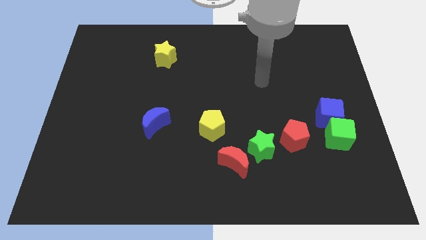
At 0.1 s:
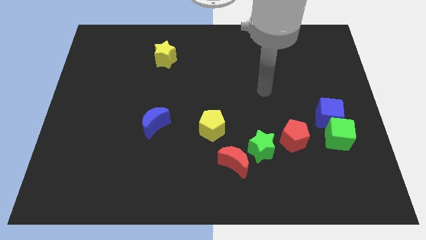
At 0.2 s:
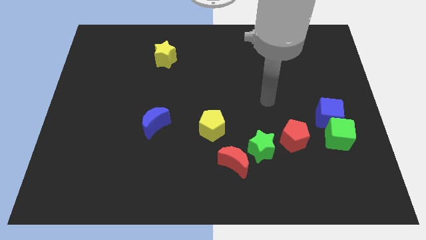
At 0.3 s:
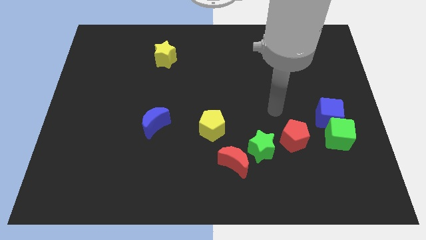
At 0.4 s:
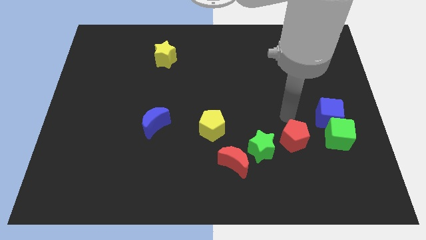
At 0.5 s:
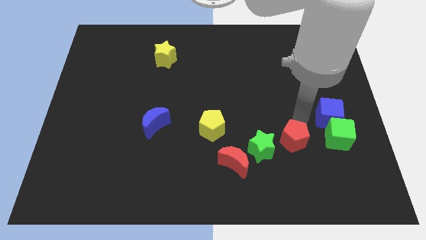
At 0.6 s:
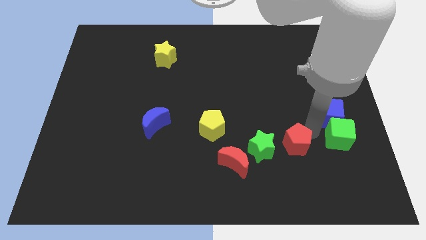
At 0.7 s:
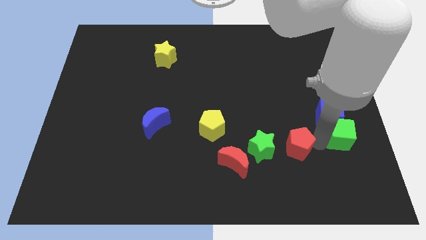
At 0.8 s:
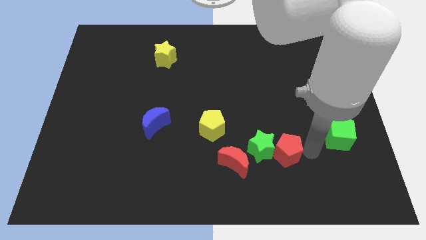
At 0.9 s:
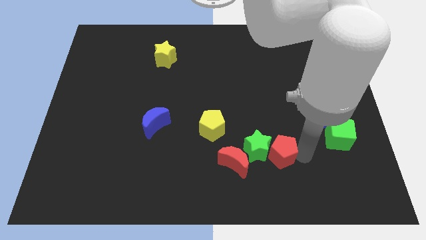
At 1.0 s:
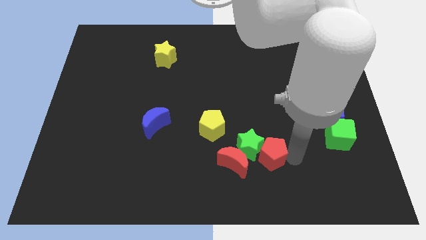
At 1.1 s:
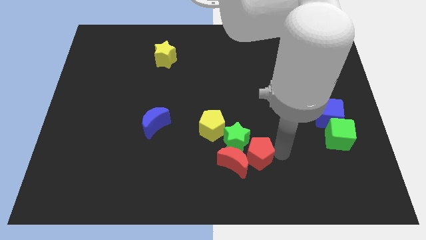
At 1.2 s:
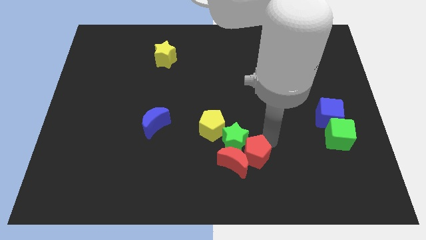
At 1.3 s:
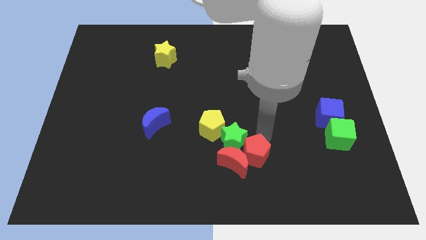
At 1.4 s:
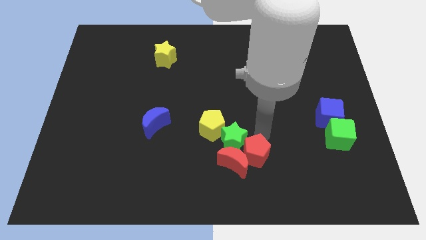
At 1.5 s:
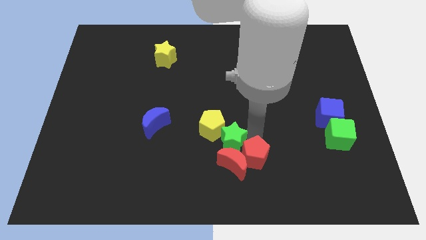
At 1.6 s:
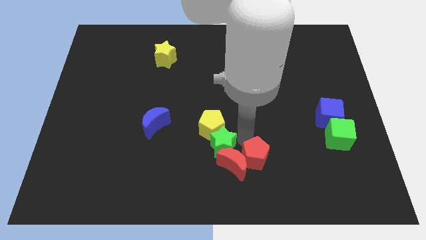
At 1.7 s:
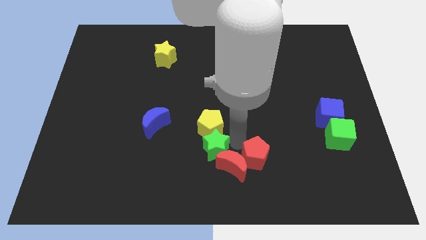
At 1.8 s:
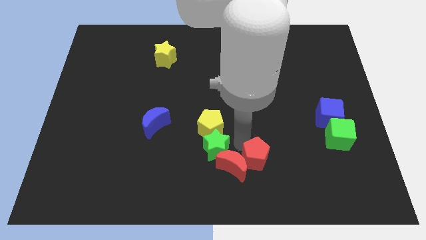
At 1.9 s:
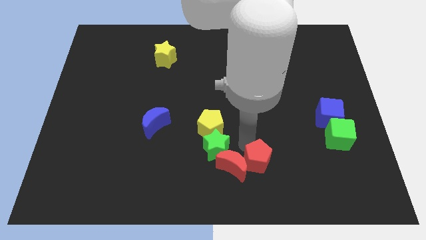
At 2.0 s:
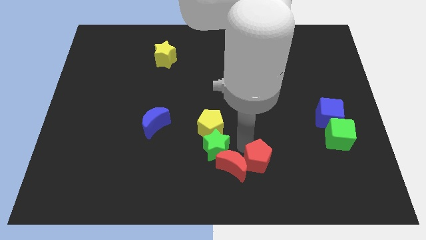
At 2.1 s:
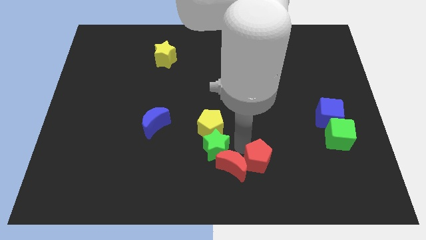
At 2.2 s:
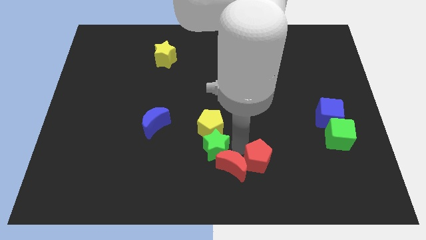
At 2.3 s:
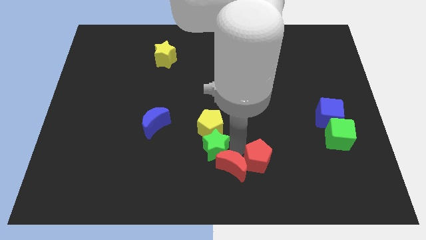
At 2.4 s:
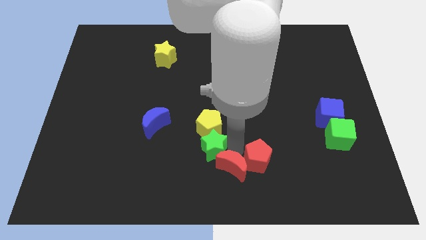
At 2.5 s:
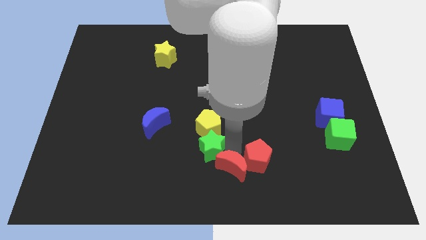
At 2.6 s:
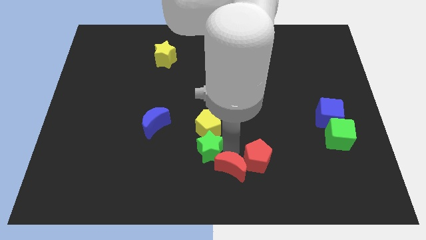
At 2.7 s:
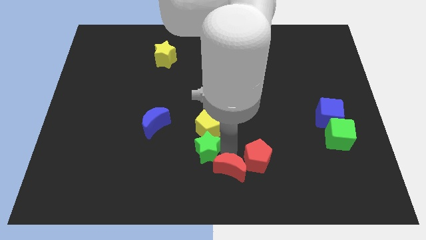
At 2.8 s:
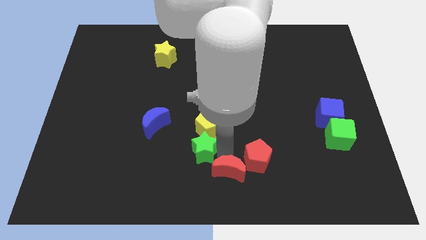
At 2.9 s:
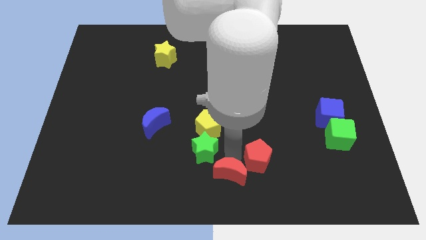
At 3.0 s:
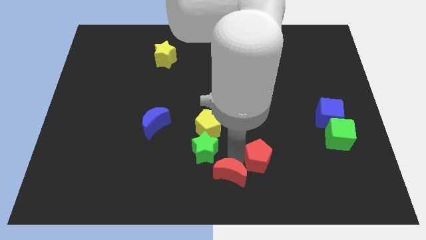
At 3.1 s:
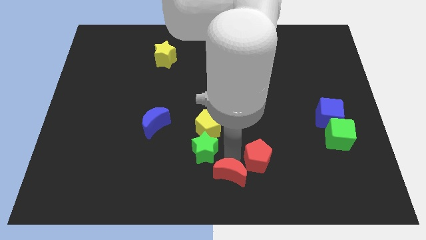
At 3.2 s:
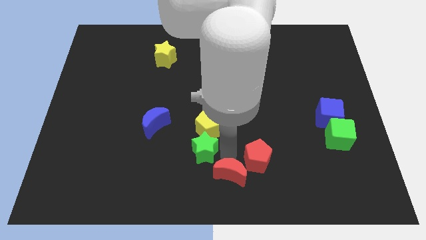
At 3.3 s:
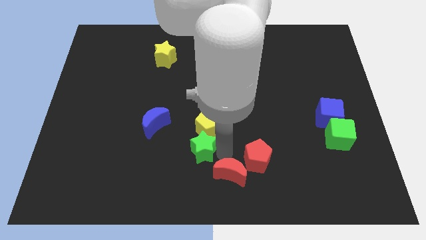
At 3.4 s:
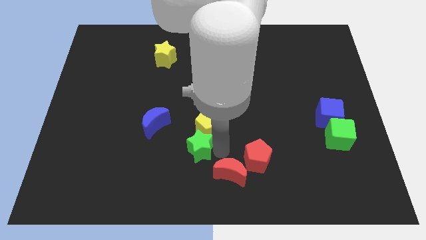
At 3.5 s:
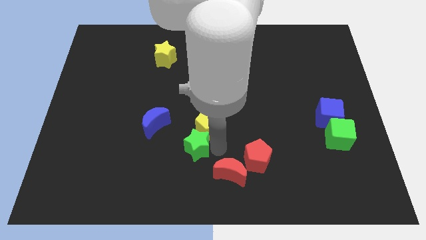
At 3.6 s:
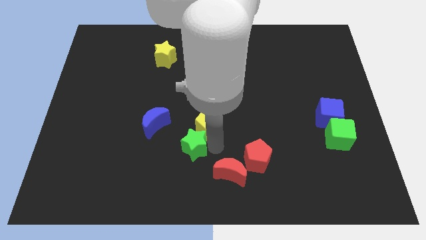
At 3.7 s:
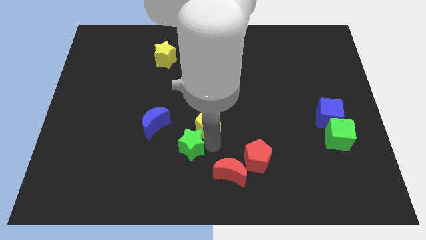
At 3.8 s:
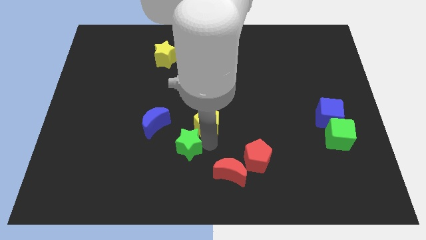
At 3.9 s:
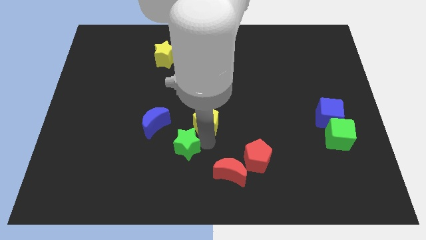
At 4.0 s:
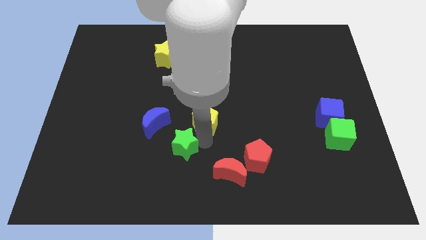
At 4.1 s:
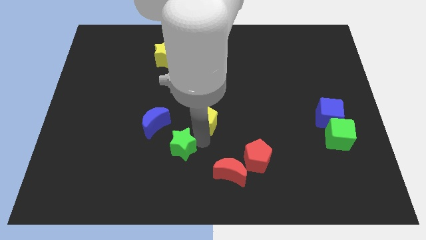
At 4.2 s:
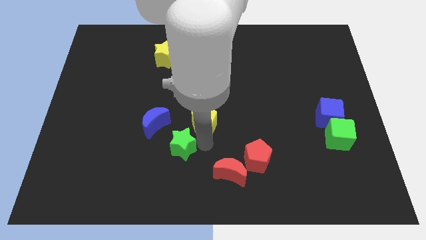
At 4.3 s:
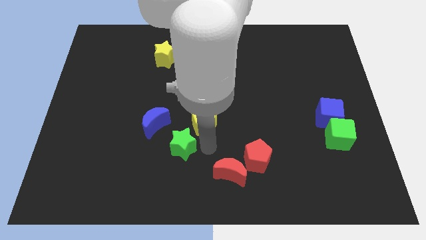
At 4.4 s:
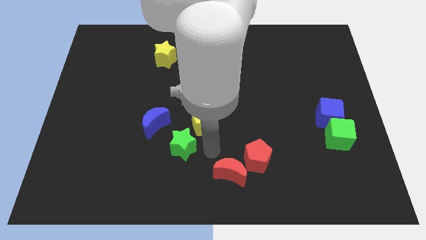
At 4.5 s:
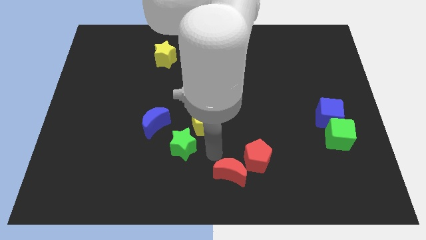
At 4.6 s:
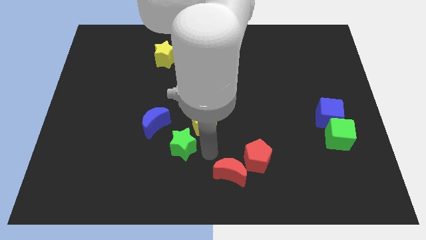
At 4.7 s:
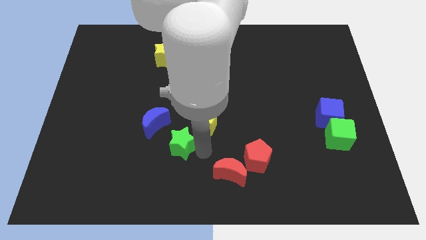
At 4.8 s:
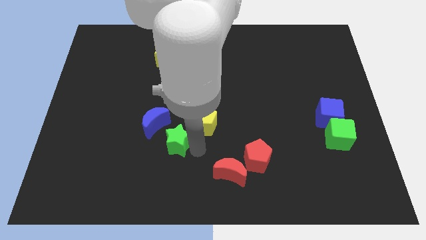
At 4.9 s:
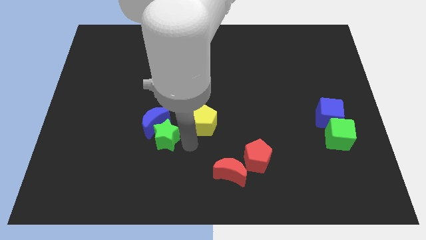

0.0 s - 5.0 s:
slide the green star to the left

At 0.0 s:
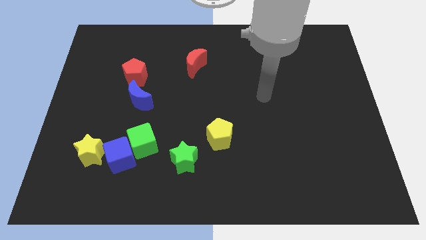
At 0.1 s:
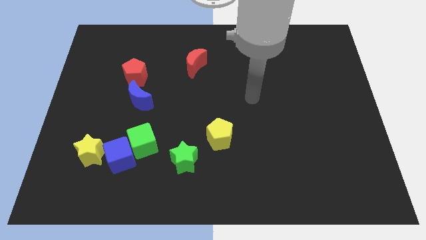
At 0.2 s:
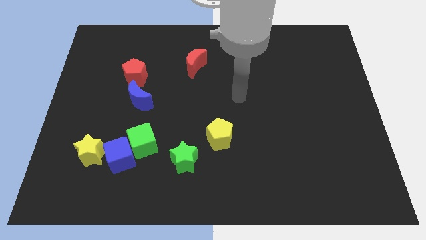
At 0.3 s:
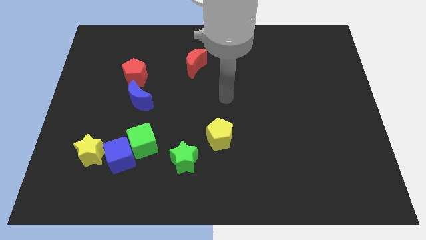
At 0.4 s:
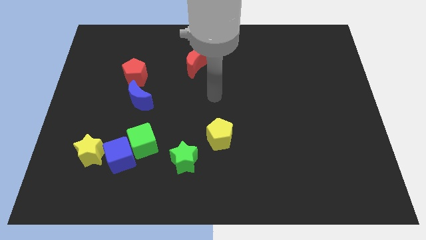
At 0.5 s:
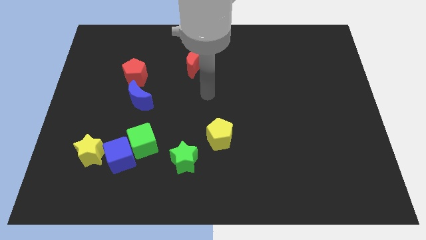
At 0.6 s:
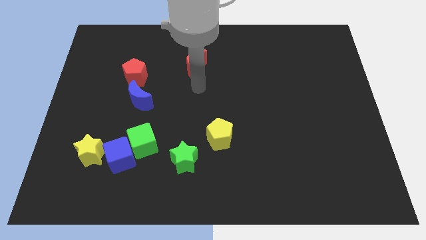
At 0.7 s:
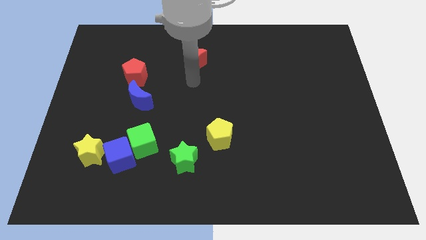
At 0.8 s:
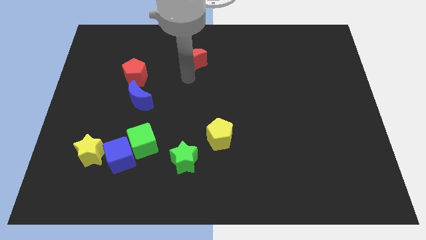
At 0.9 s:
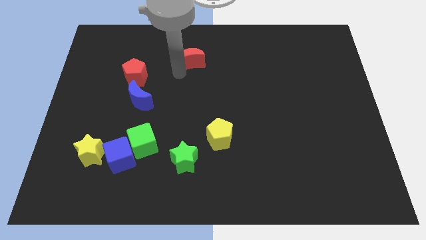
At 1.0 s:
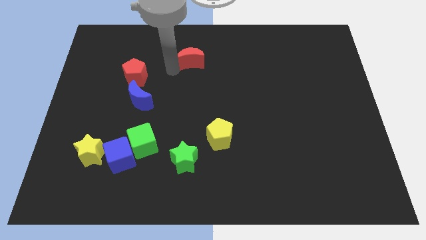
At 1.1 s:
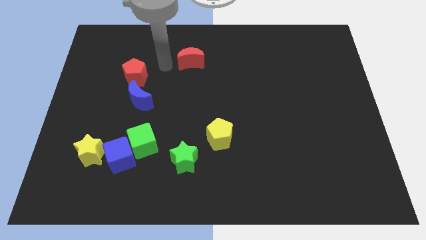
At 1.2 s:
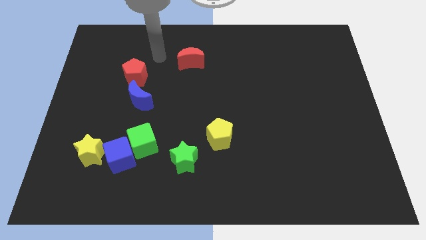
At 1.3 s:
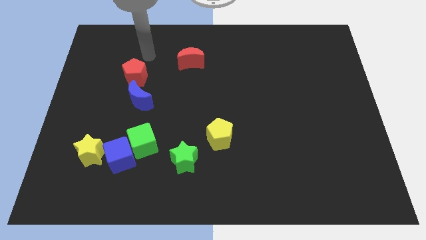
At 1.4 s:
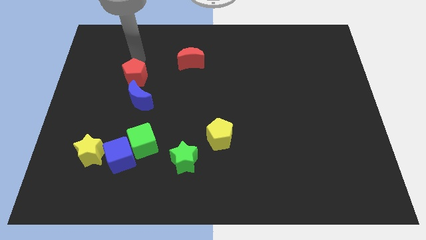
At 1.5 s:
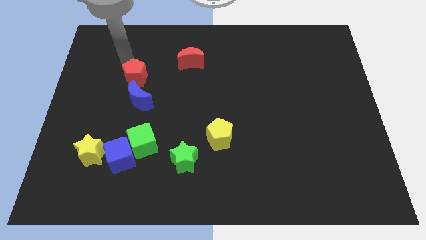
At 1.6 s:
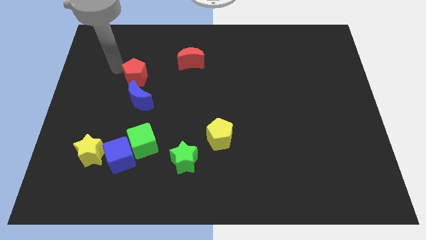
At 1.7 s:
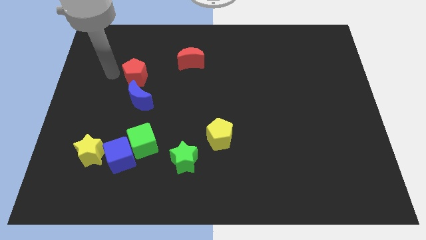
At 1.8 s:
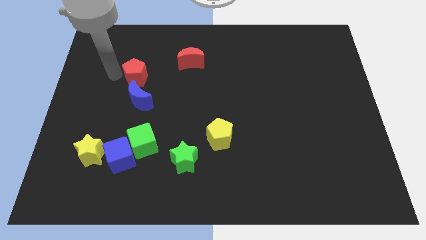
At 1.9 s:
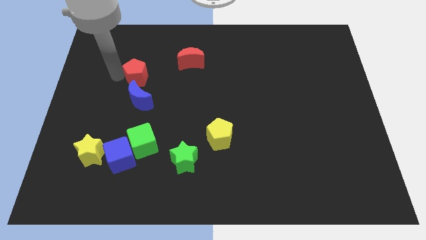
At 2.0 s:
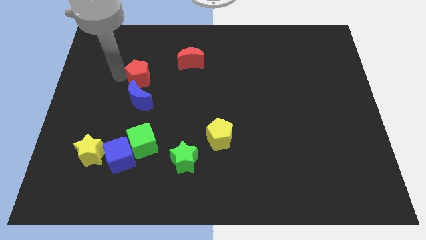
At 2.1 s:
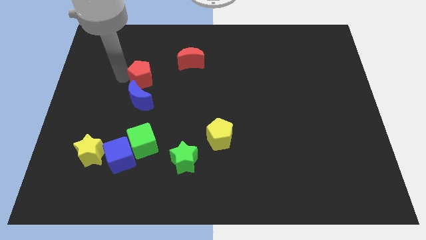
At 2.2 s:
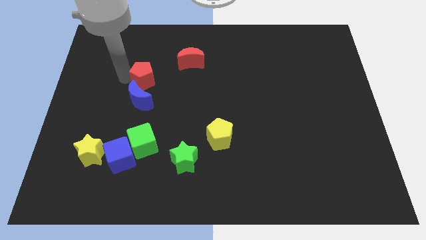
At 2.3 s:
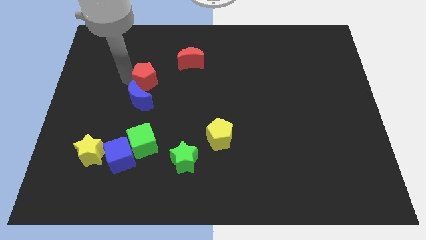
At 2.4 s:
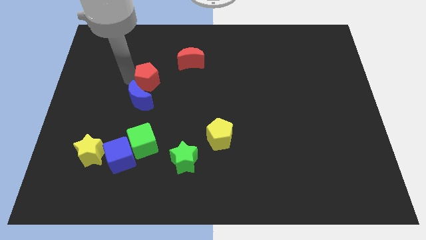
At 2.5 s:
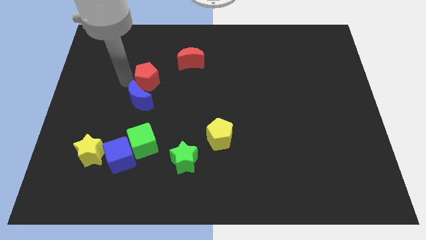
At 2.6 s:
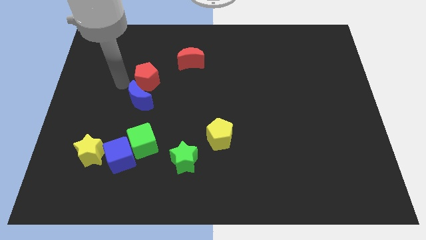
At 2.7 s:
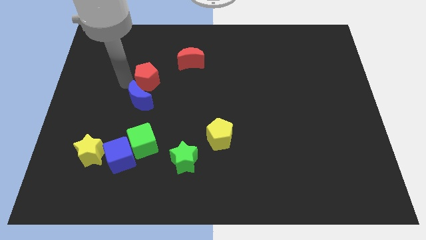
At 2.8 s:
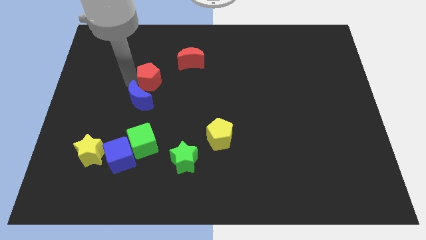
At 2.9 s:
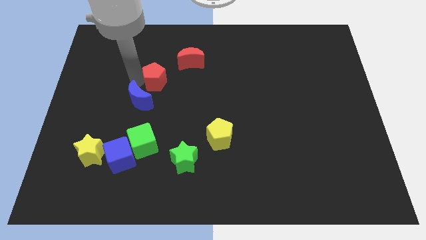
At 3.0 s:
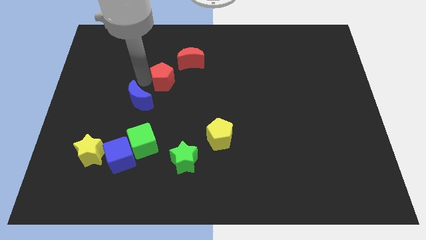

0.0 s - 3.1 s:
push the red pentagon right slightly

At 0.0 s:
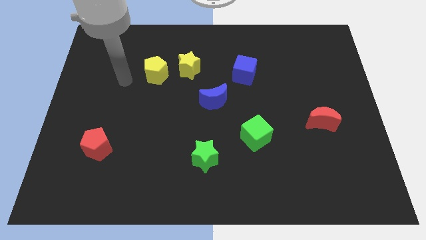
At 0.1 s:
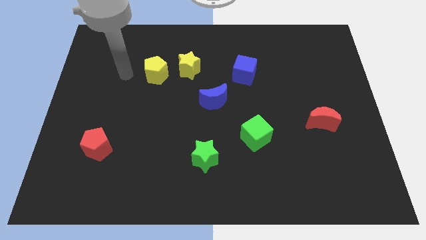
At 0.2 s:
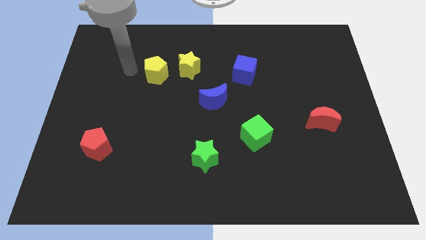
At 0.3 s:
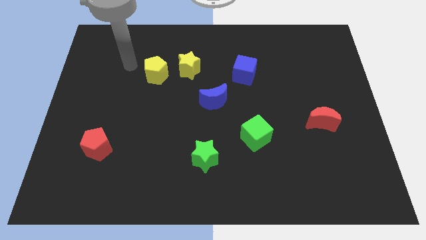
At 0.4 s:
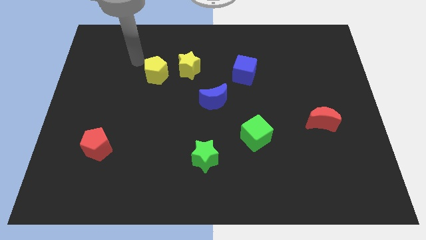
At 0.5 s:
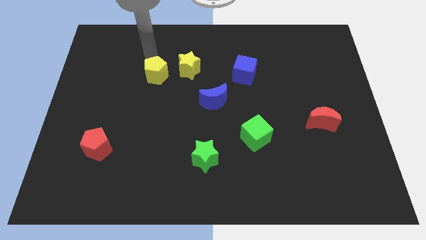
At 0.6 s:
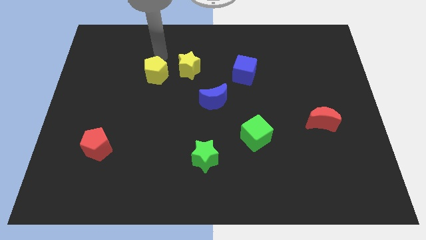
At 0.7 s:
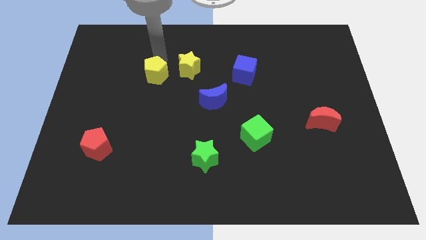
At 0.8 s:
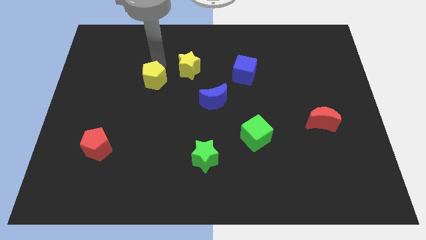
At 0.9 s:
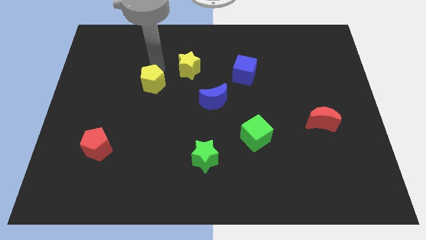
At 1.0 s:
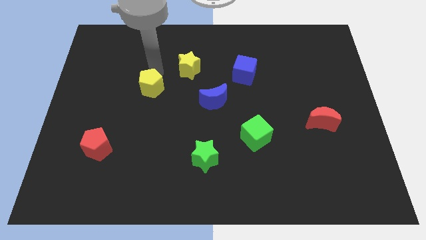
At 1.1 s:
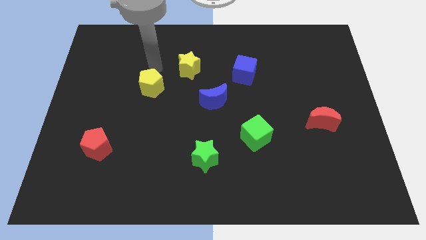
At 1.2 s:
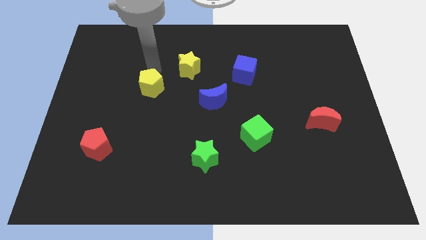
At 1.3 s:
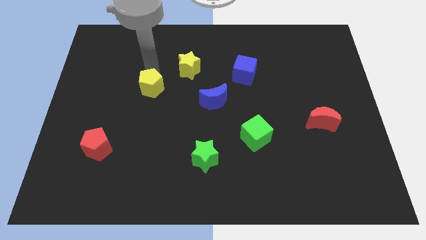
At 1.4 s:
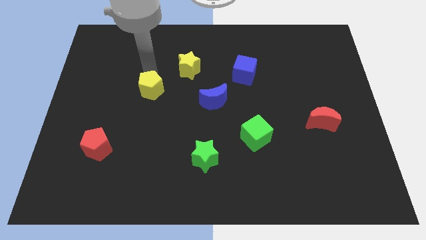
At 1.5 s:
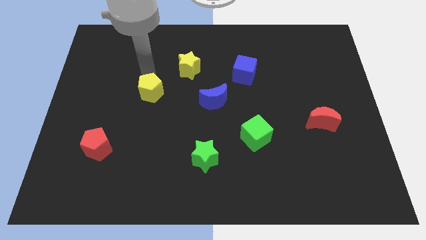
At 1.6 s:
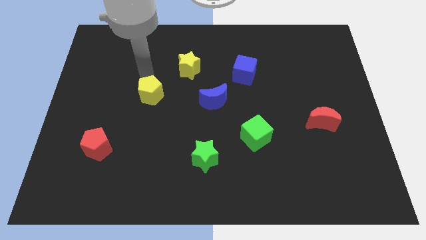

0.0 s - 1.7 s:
move the yellow pentagon downwards somewhat